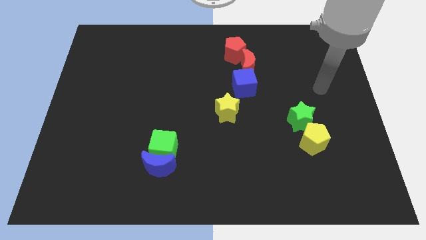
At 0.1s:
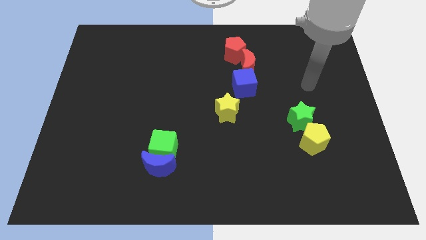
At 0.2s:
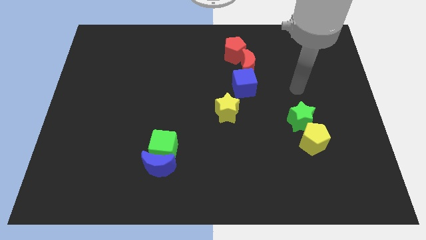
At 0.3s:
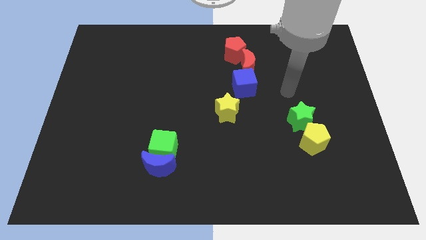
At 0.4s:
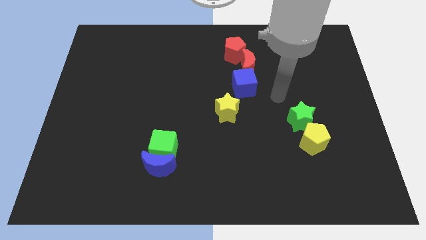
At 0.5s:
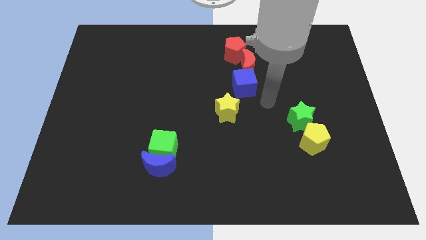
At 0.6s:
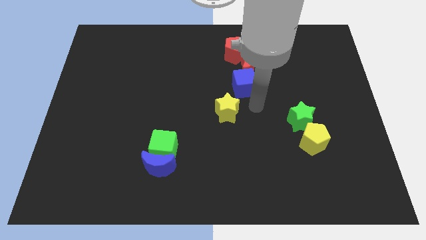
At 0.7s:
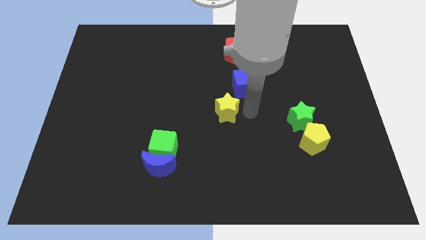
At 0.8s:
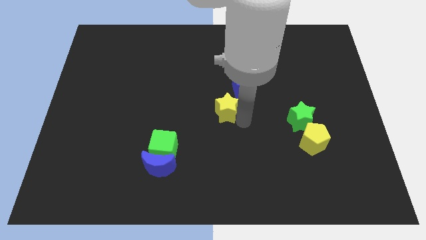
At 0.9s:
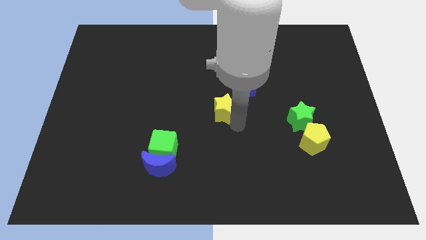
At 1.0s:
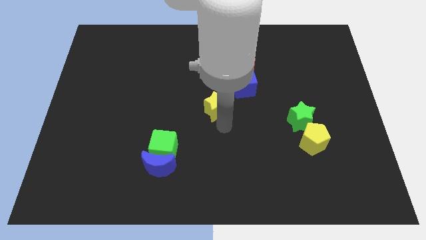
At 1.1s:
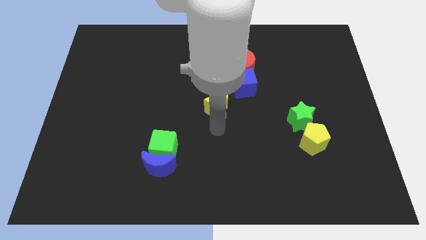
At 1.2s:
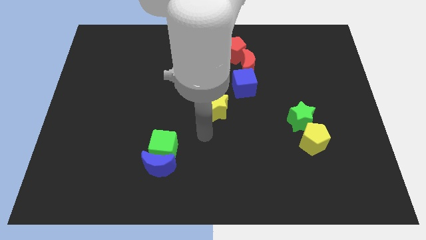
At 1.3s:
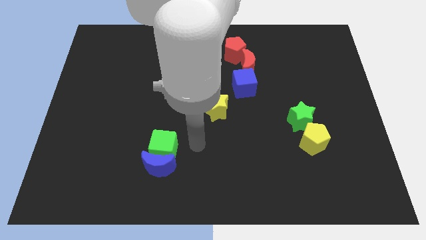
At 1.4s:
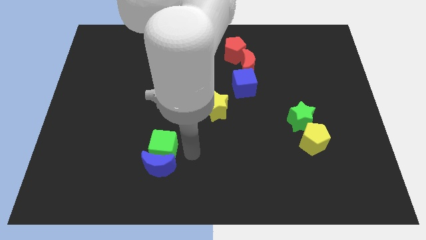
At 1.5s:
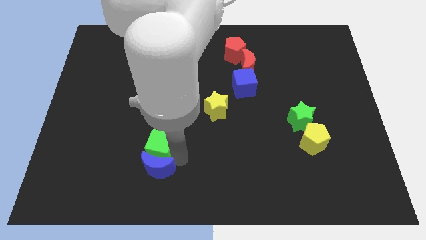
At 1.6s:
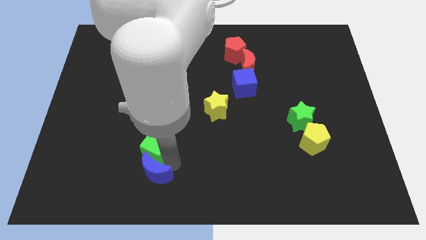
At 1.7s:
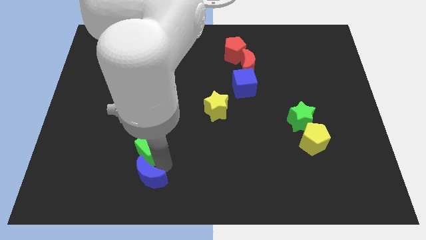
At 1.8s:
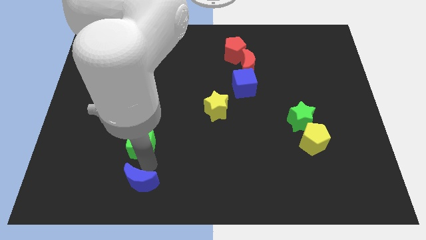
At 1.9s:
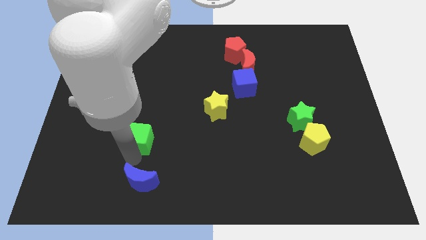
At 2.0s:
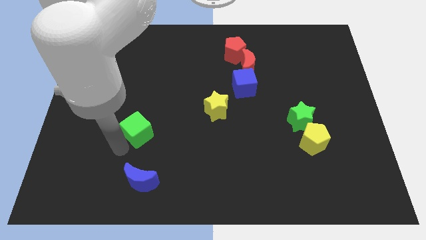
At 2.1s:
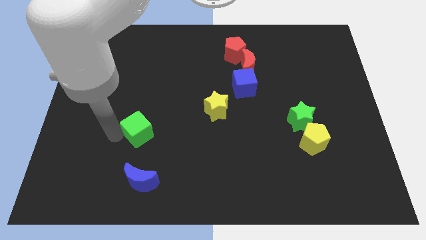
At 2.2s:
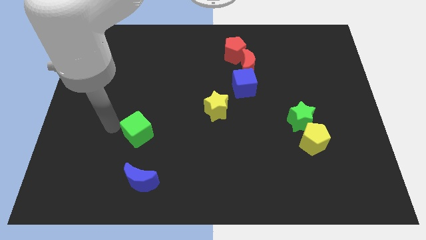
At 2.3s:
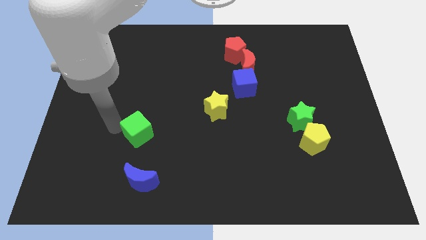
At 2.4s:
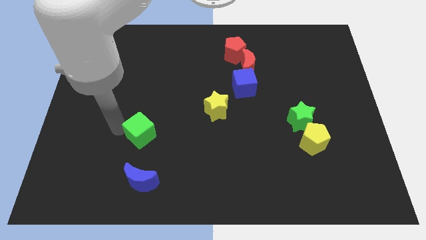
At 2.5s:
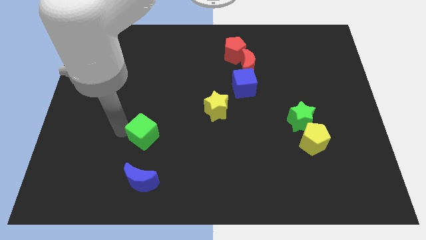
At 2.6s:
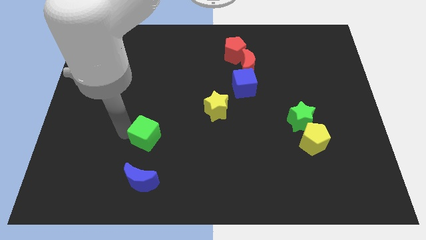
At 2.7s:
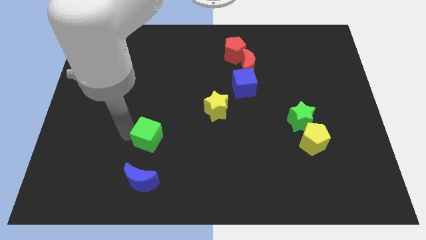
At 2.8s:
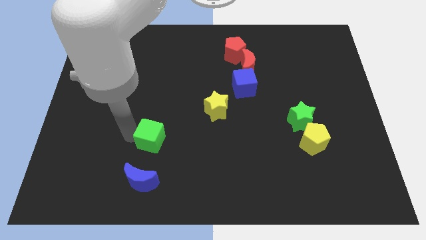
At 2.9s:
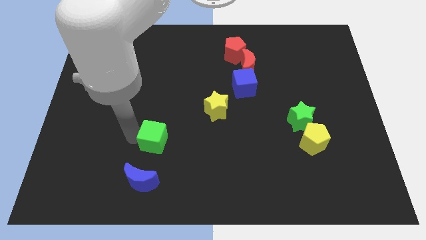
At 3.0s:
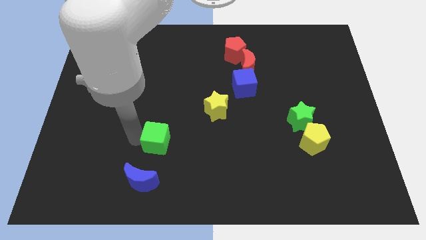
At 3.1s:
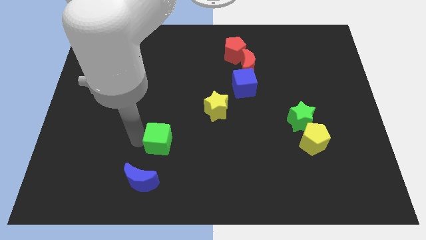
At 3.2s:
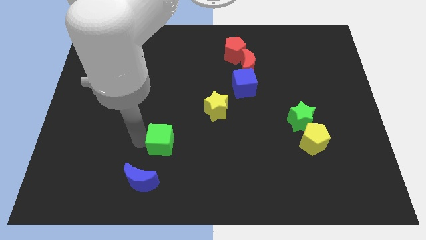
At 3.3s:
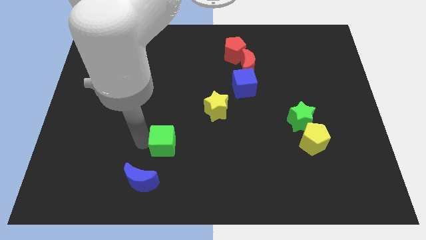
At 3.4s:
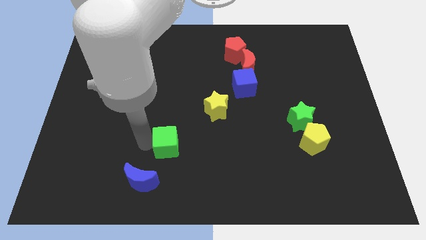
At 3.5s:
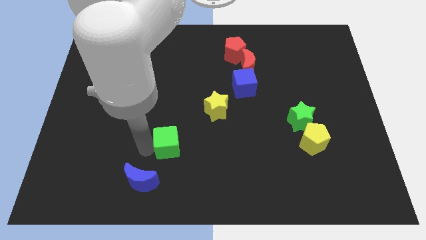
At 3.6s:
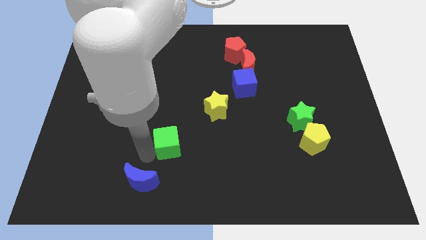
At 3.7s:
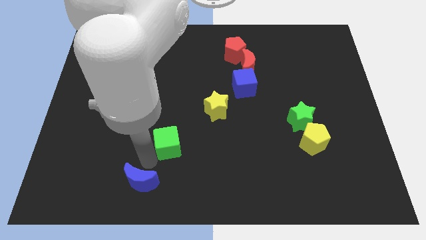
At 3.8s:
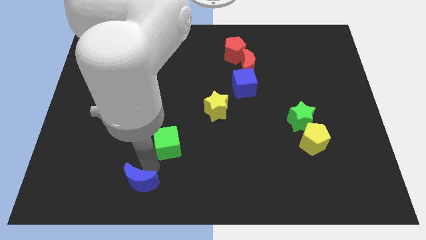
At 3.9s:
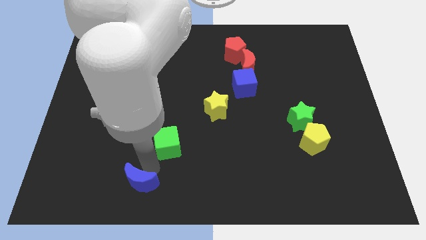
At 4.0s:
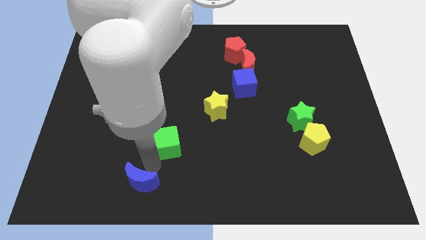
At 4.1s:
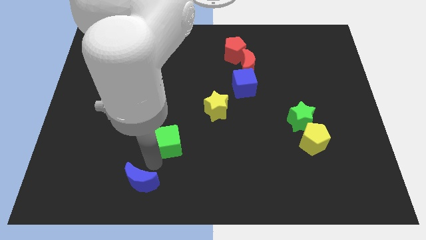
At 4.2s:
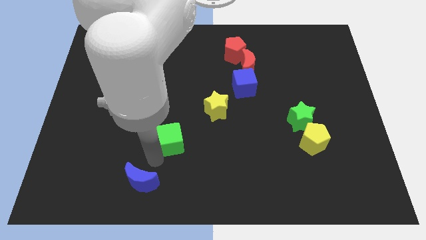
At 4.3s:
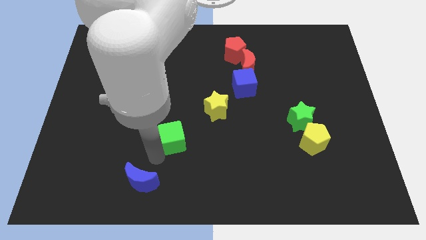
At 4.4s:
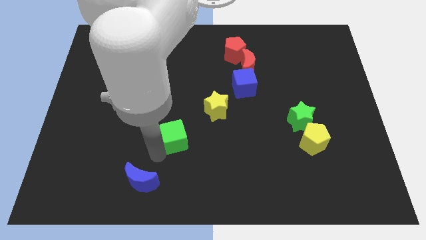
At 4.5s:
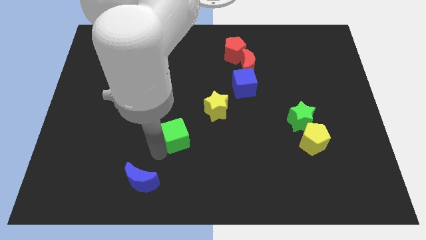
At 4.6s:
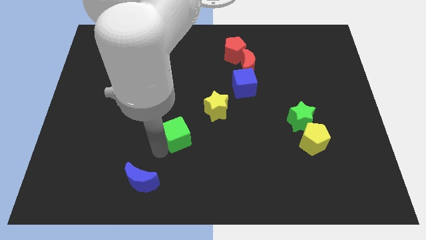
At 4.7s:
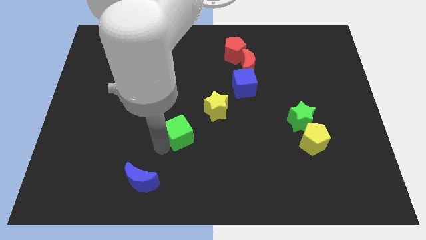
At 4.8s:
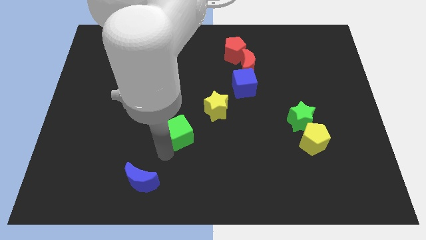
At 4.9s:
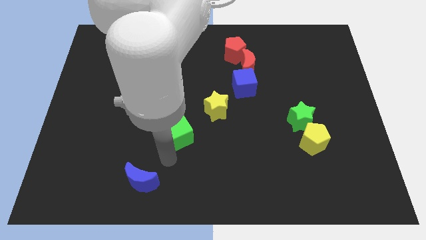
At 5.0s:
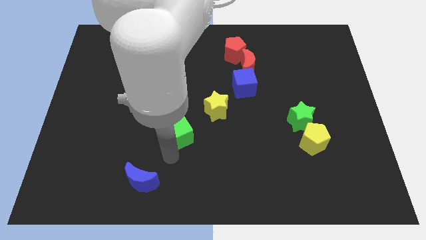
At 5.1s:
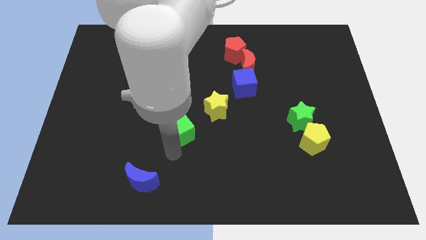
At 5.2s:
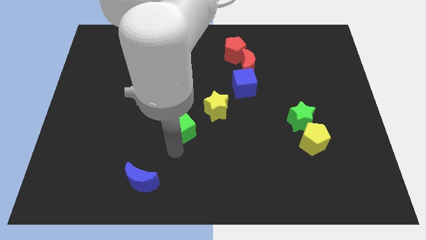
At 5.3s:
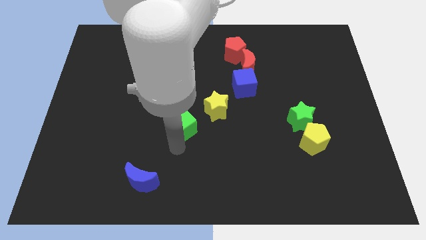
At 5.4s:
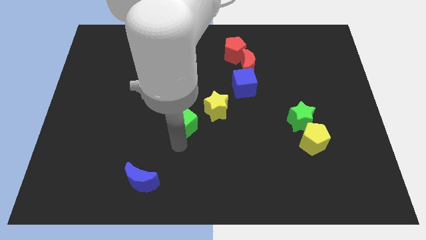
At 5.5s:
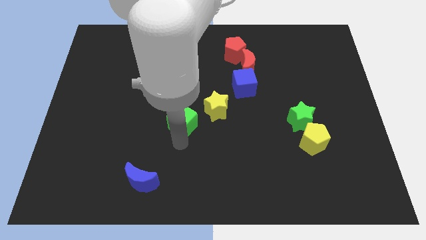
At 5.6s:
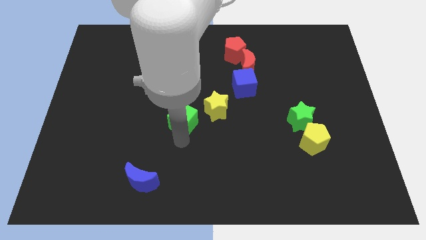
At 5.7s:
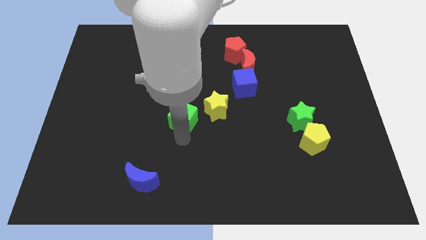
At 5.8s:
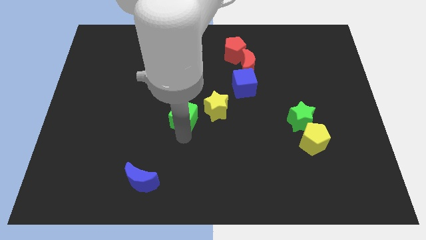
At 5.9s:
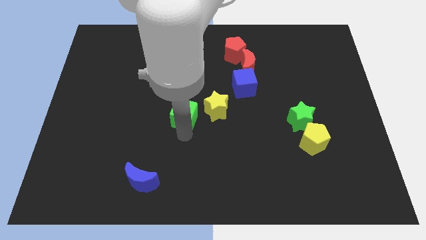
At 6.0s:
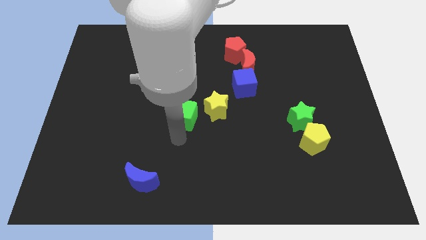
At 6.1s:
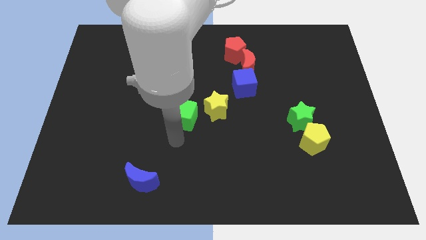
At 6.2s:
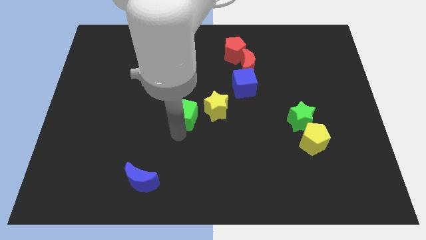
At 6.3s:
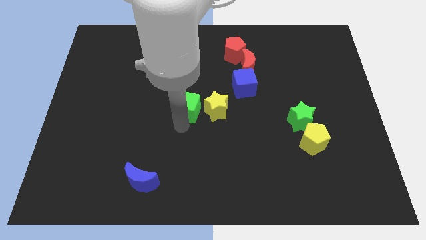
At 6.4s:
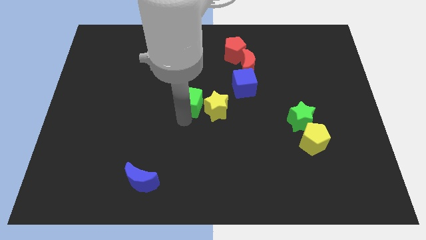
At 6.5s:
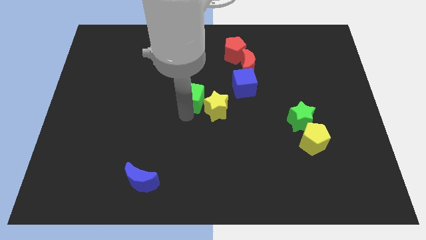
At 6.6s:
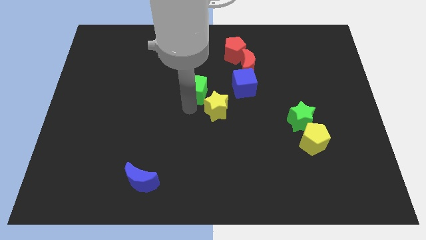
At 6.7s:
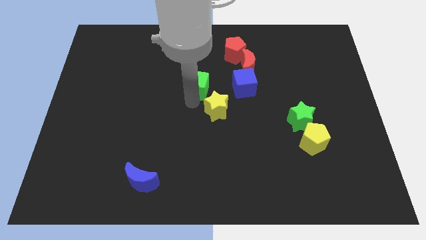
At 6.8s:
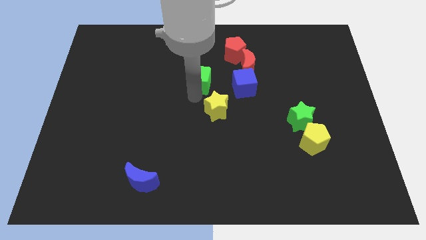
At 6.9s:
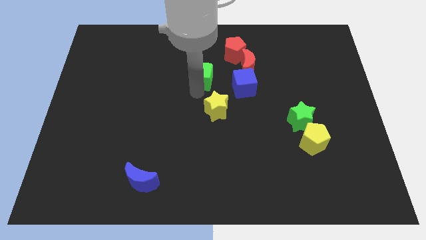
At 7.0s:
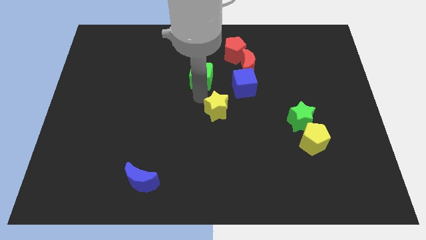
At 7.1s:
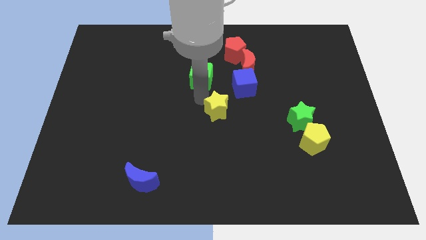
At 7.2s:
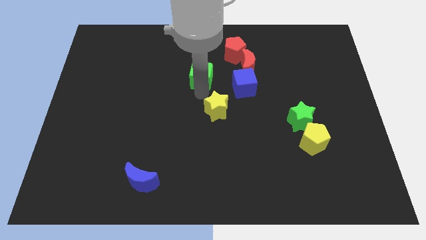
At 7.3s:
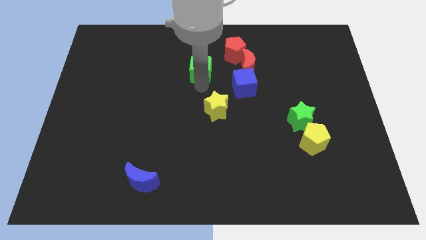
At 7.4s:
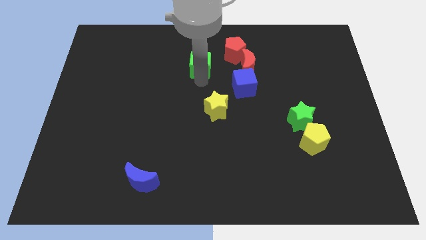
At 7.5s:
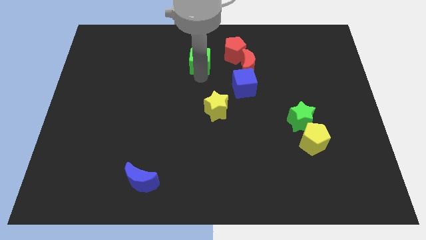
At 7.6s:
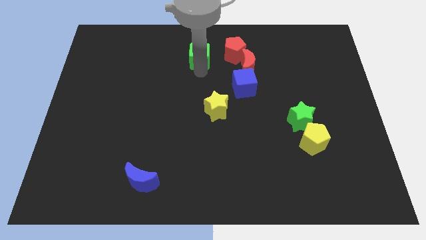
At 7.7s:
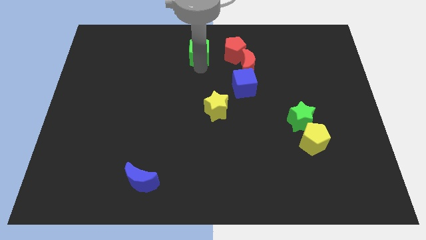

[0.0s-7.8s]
move the green cube to the towards your base
